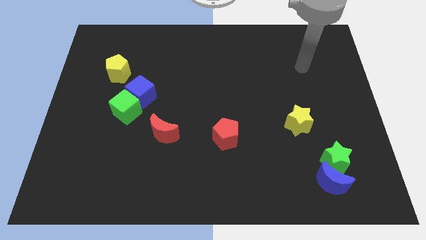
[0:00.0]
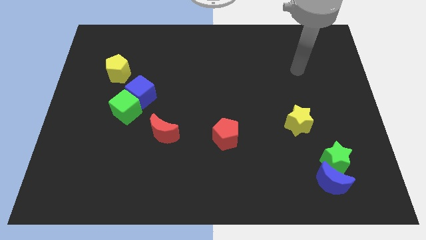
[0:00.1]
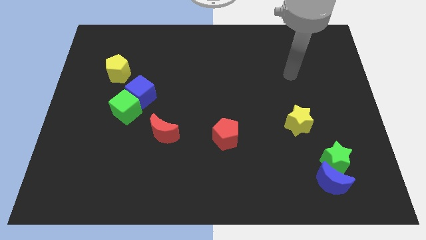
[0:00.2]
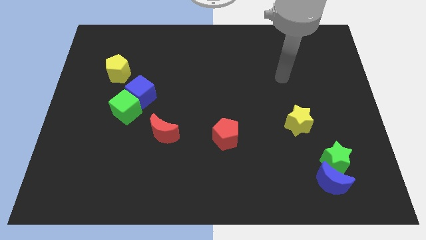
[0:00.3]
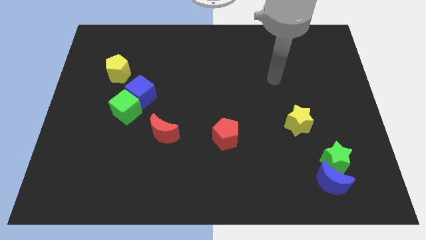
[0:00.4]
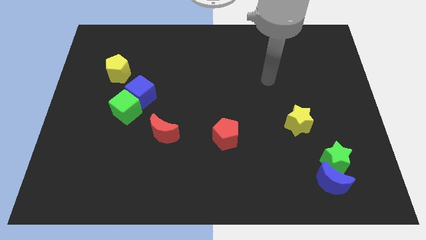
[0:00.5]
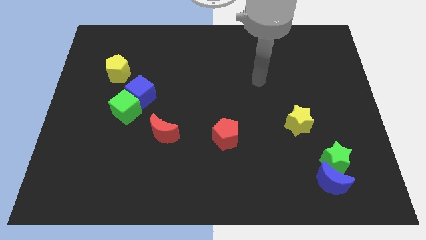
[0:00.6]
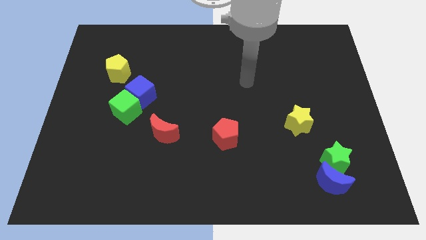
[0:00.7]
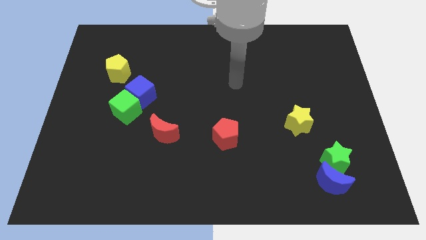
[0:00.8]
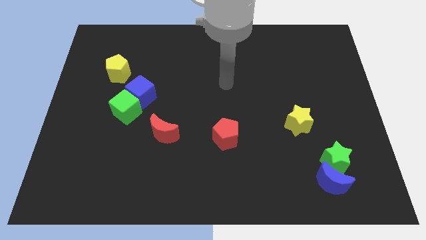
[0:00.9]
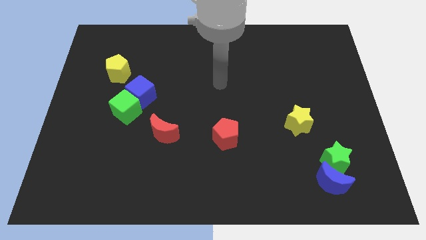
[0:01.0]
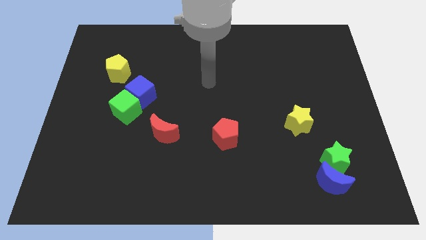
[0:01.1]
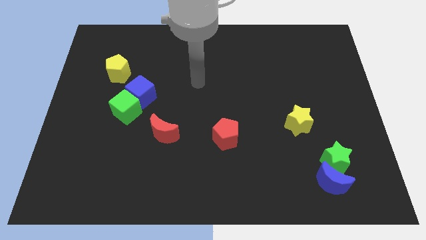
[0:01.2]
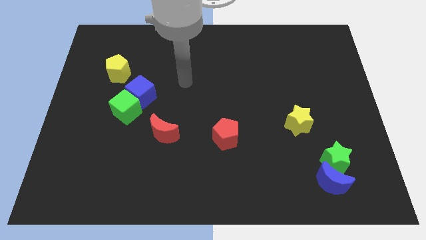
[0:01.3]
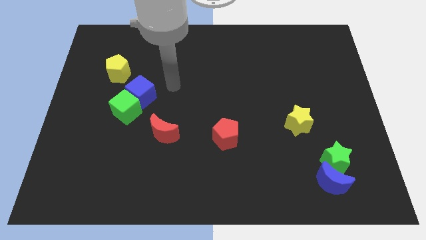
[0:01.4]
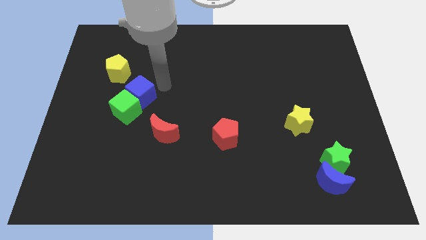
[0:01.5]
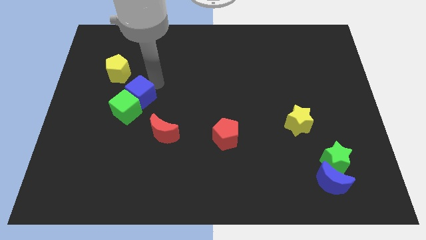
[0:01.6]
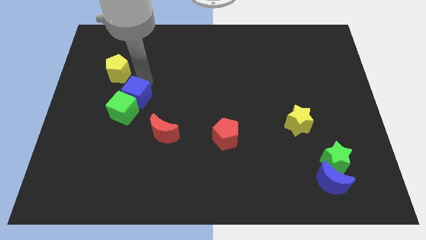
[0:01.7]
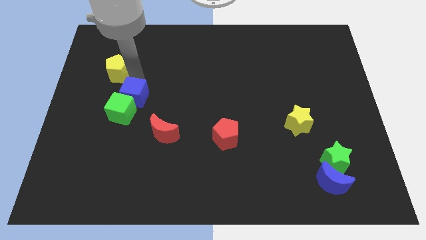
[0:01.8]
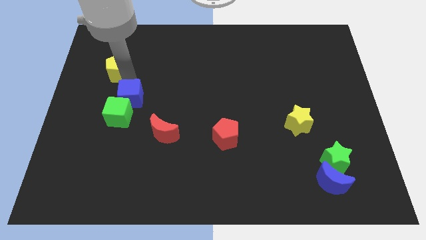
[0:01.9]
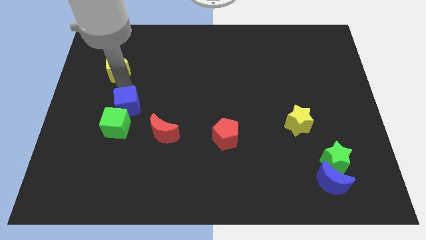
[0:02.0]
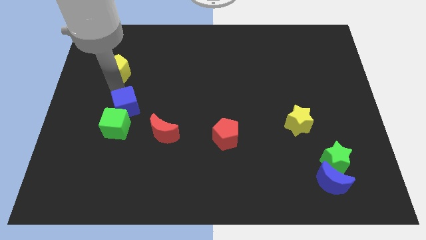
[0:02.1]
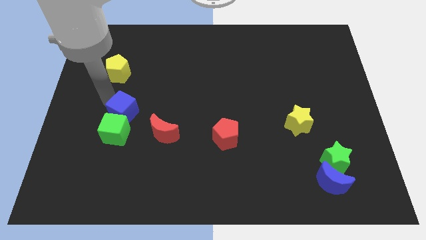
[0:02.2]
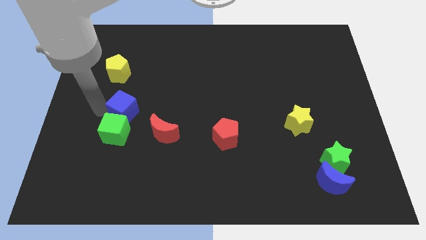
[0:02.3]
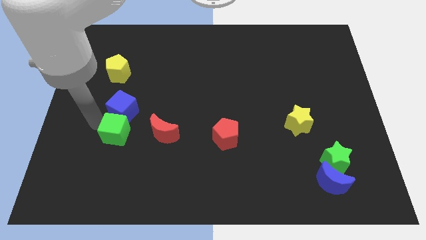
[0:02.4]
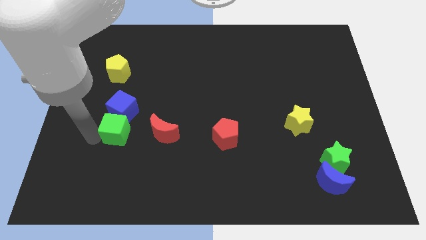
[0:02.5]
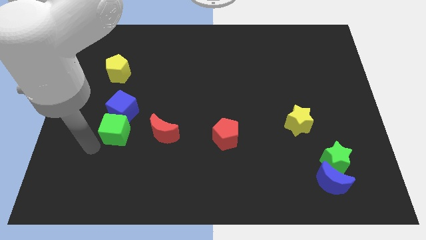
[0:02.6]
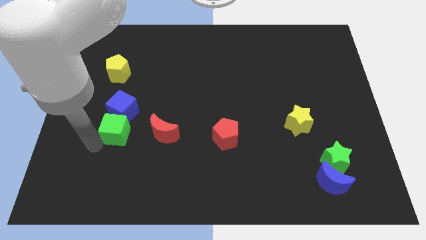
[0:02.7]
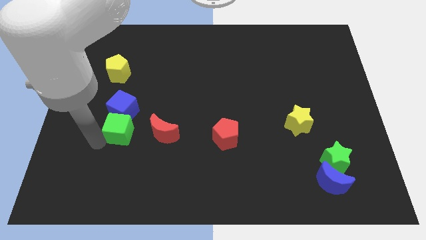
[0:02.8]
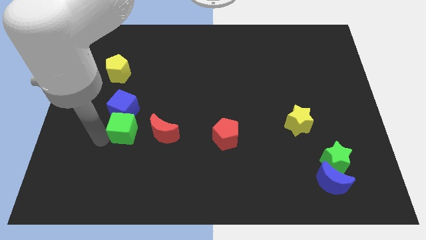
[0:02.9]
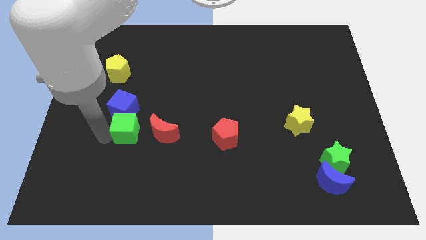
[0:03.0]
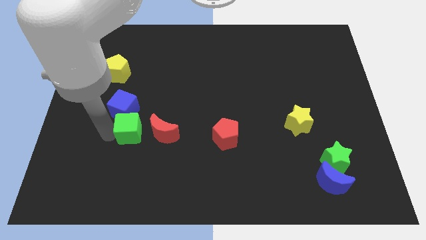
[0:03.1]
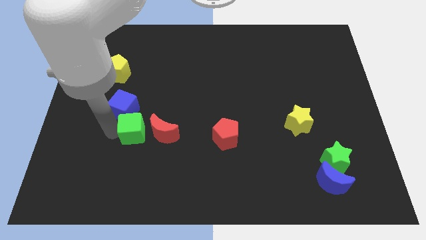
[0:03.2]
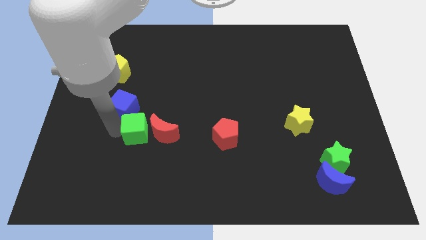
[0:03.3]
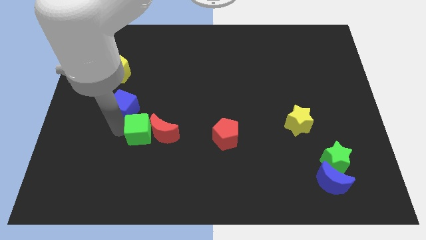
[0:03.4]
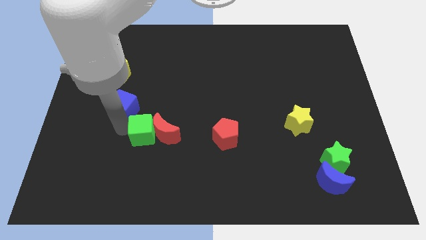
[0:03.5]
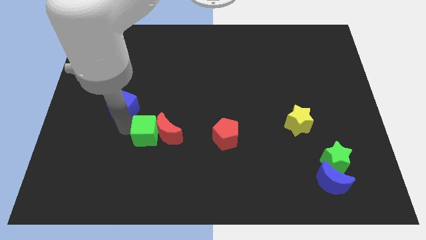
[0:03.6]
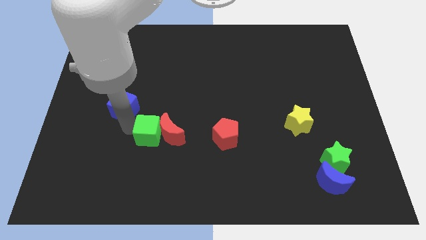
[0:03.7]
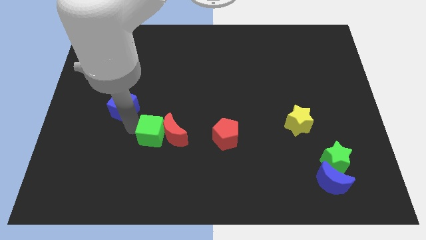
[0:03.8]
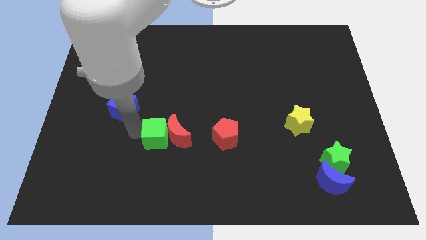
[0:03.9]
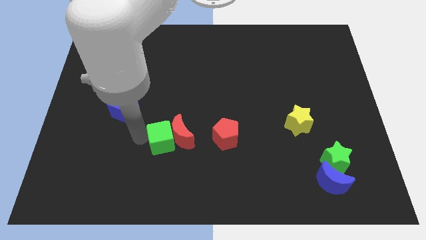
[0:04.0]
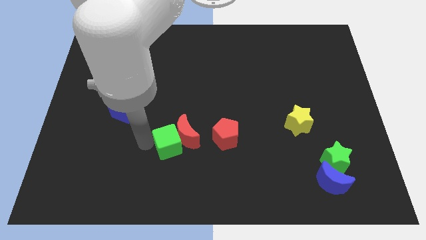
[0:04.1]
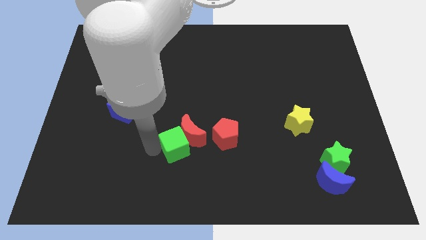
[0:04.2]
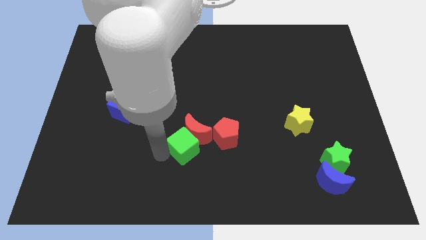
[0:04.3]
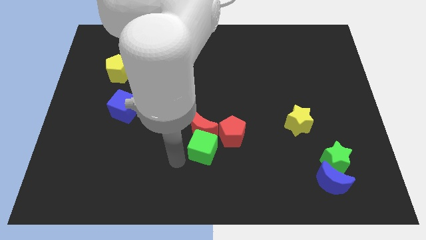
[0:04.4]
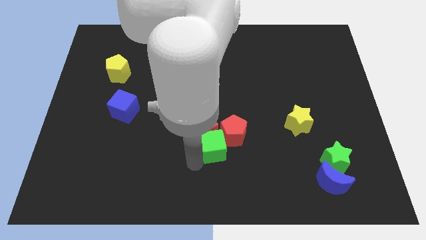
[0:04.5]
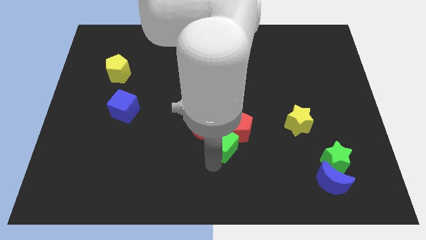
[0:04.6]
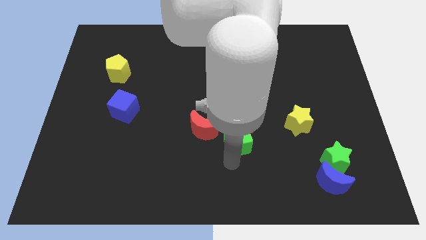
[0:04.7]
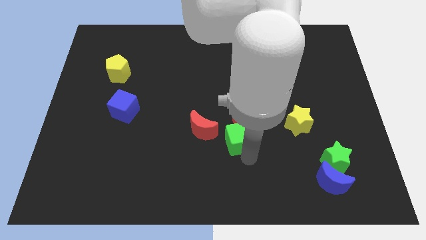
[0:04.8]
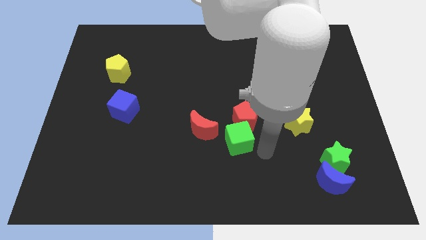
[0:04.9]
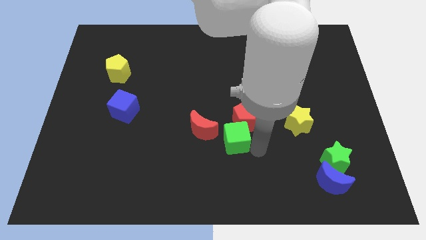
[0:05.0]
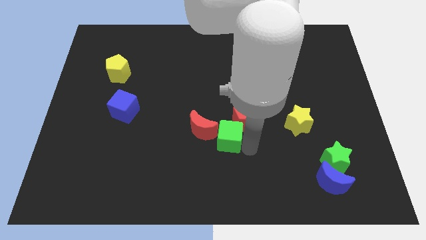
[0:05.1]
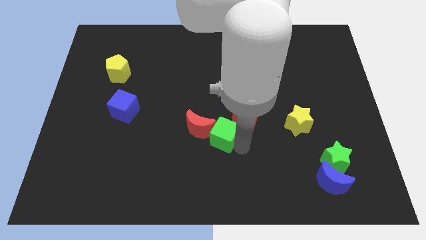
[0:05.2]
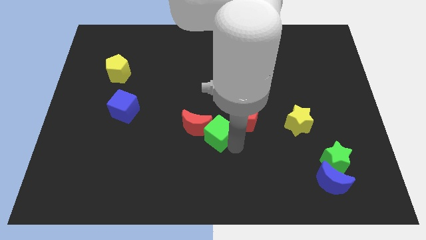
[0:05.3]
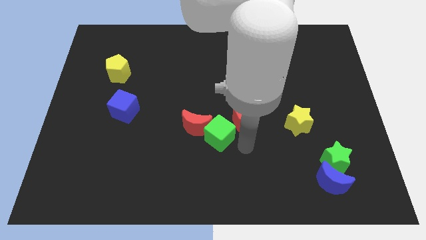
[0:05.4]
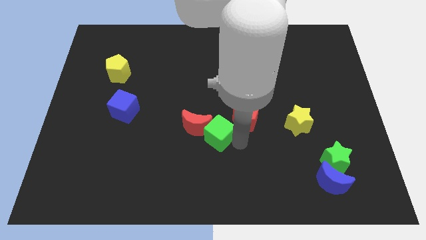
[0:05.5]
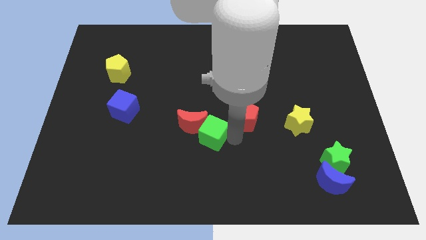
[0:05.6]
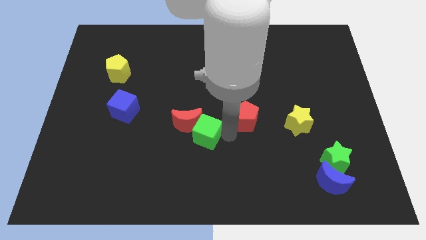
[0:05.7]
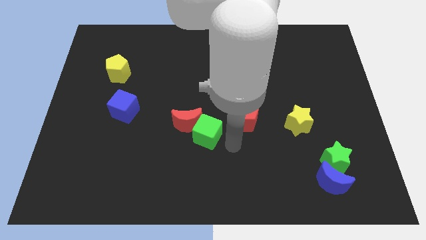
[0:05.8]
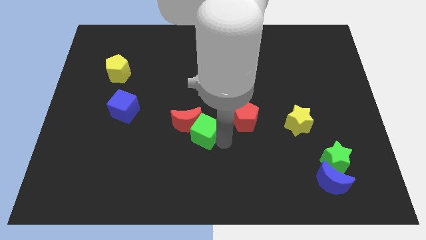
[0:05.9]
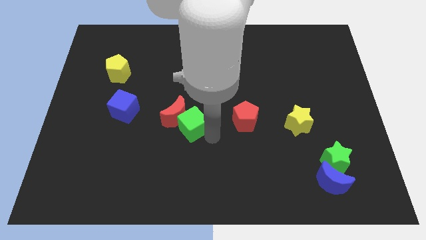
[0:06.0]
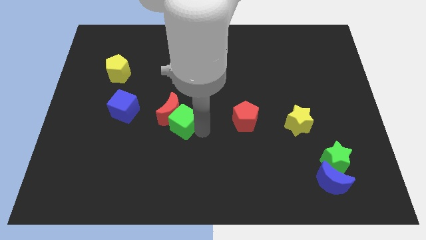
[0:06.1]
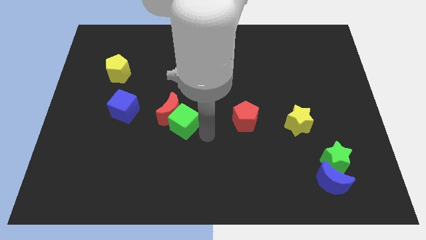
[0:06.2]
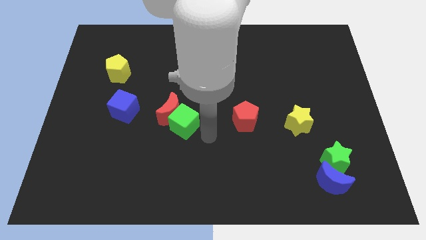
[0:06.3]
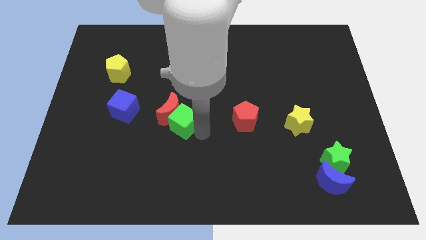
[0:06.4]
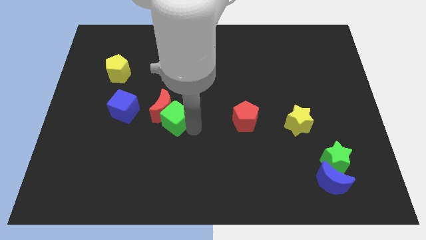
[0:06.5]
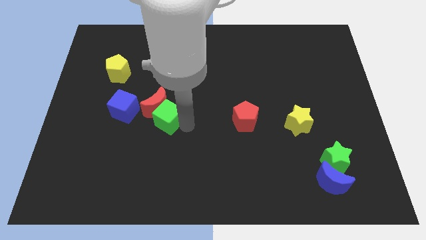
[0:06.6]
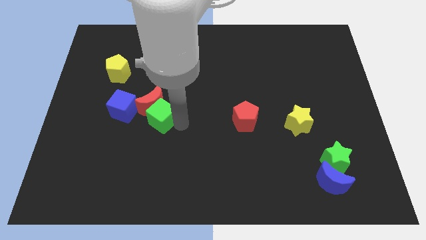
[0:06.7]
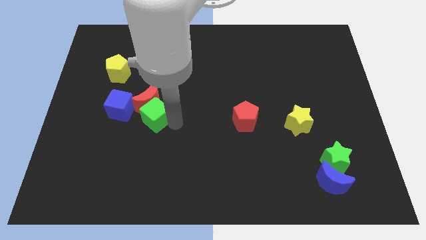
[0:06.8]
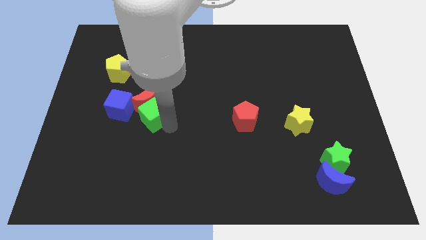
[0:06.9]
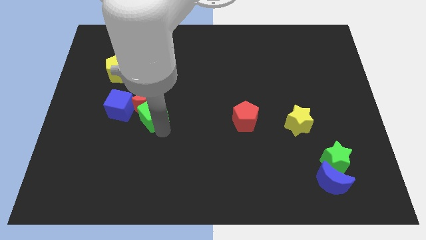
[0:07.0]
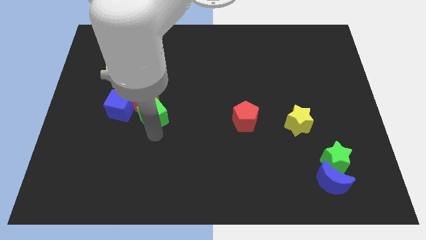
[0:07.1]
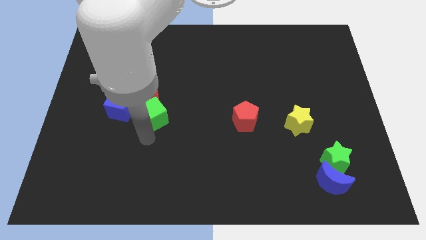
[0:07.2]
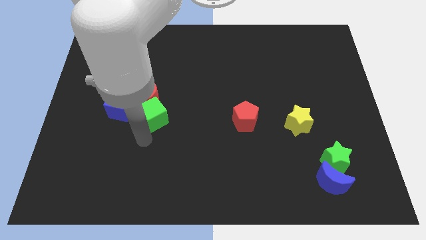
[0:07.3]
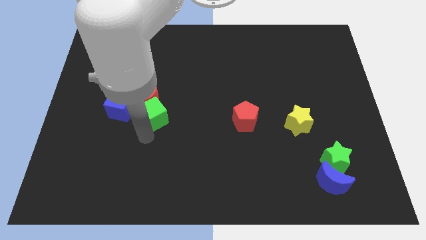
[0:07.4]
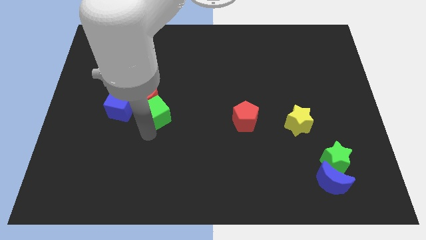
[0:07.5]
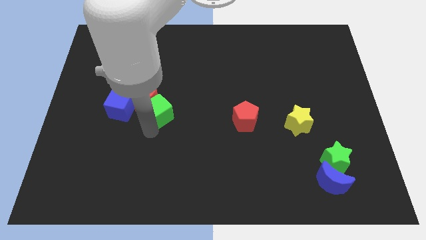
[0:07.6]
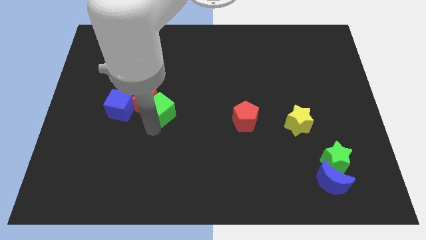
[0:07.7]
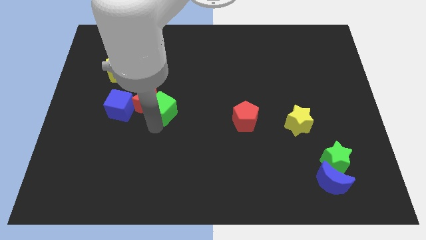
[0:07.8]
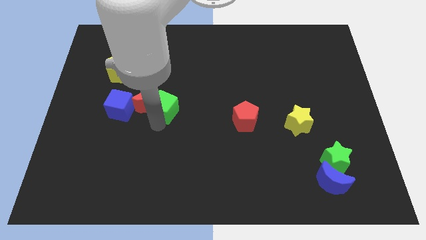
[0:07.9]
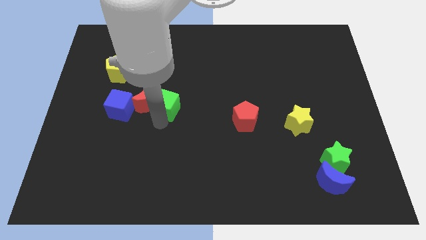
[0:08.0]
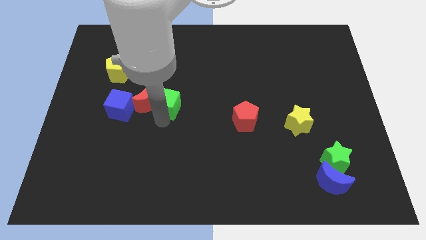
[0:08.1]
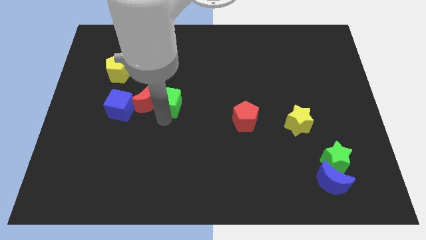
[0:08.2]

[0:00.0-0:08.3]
slide the green cube a little upwards and then right
